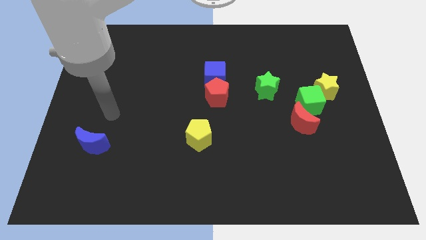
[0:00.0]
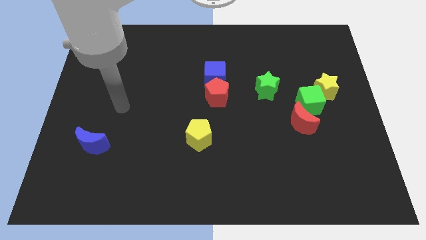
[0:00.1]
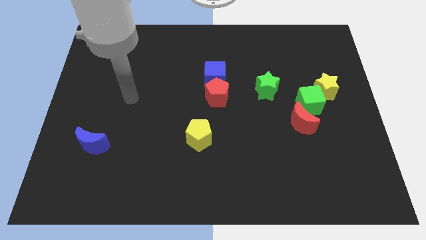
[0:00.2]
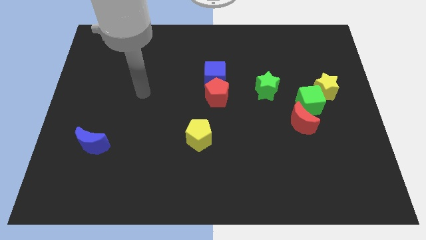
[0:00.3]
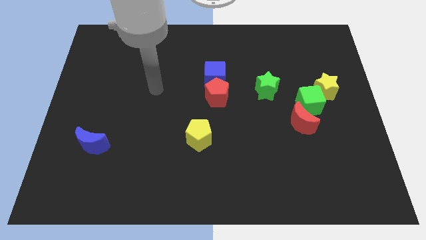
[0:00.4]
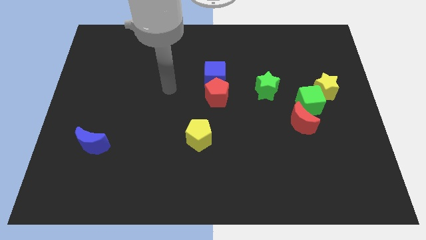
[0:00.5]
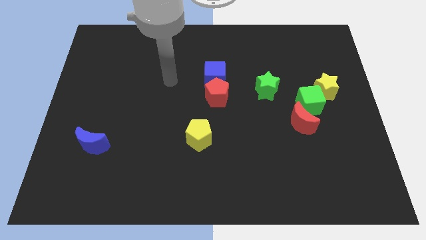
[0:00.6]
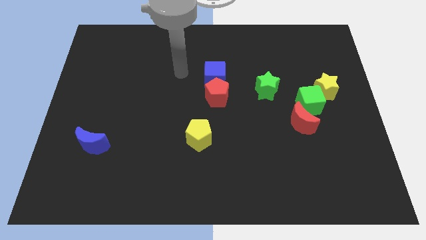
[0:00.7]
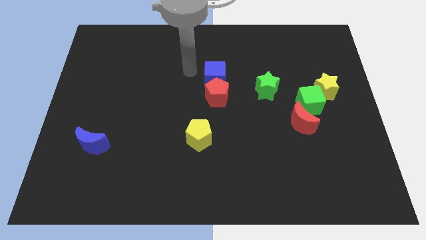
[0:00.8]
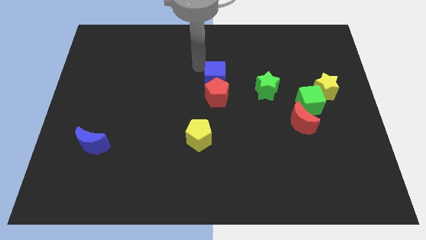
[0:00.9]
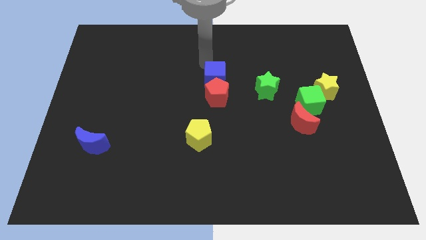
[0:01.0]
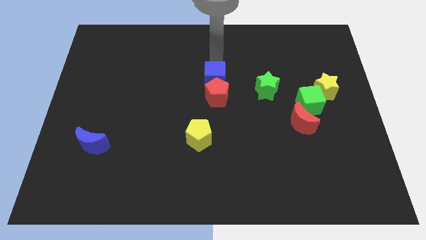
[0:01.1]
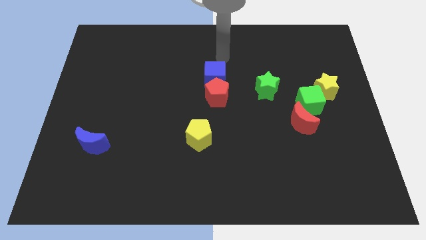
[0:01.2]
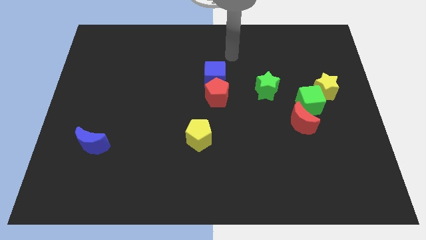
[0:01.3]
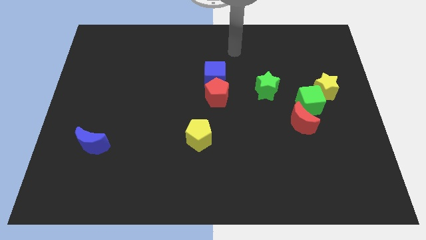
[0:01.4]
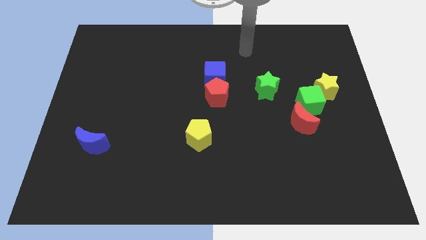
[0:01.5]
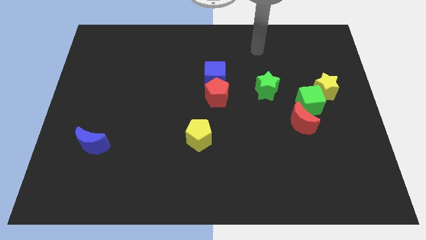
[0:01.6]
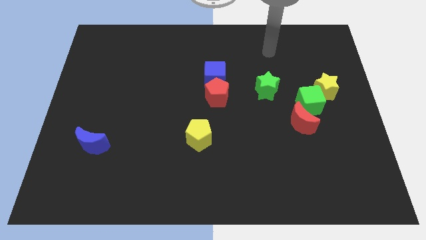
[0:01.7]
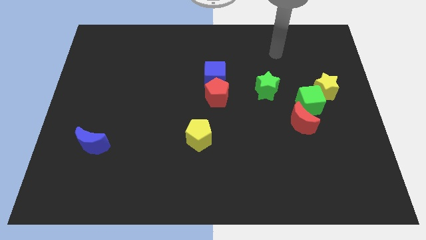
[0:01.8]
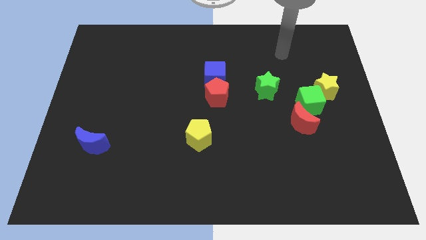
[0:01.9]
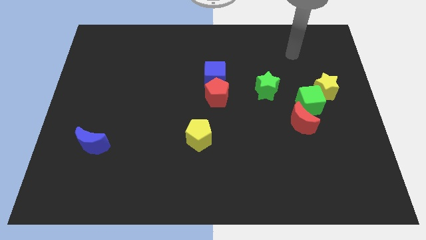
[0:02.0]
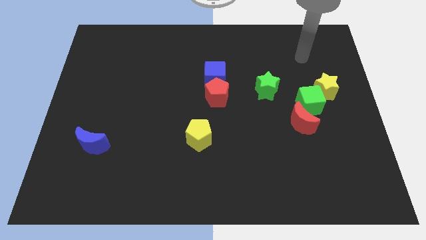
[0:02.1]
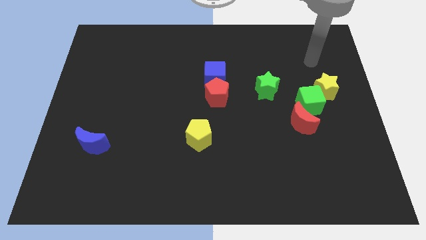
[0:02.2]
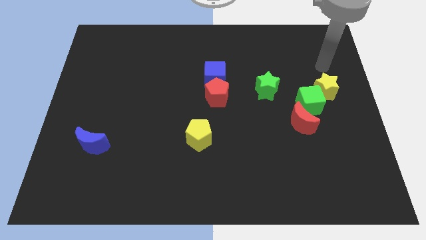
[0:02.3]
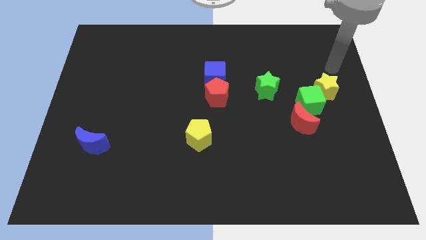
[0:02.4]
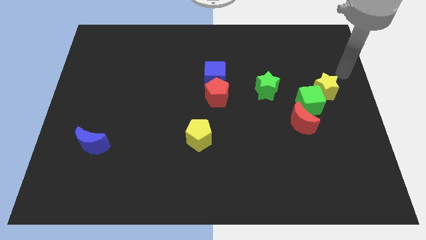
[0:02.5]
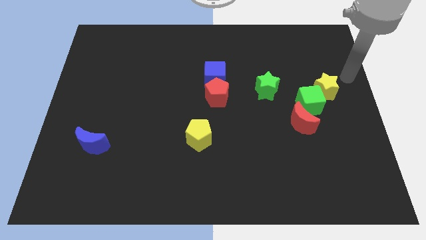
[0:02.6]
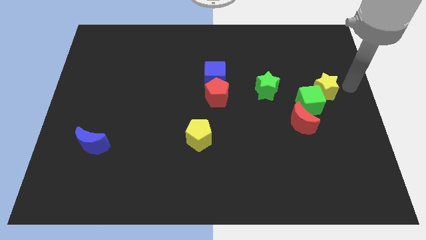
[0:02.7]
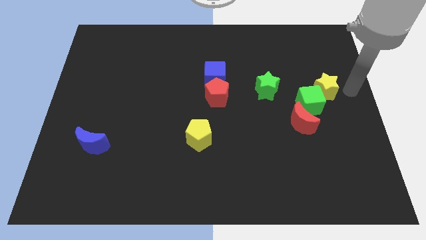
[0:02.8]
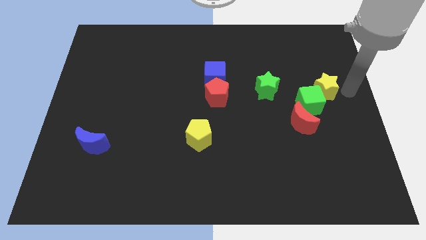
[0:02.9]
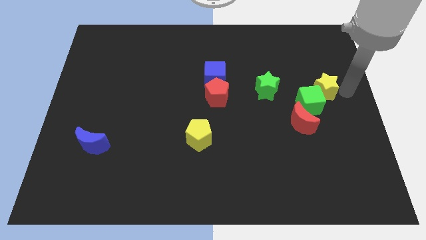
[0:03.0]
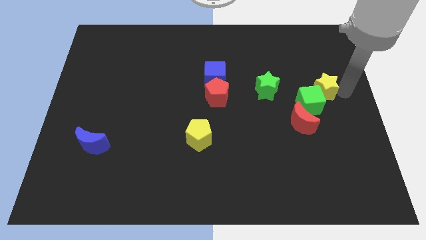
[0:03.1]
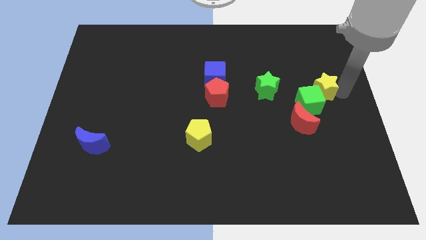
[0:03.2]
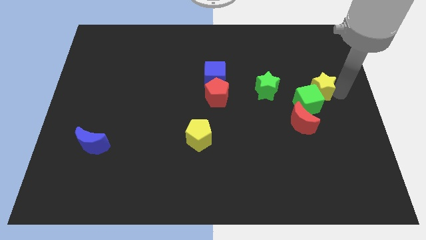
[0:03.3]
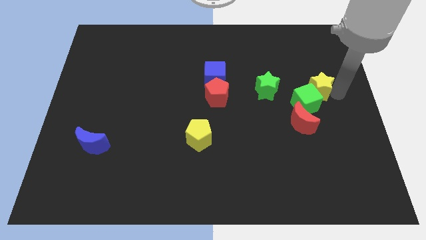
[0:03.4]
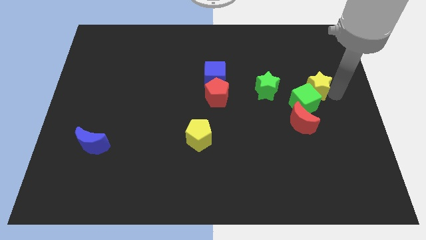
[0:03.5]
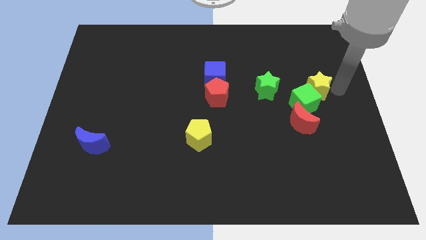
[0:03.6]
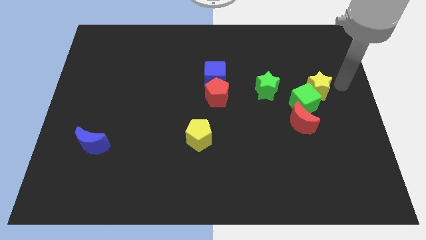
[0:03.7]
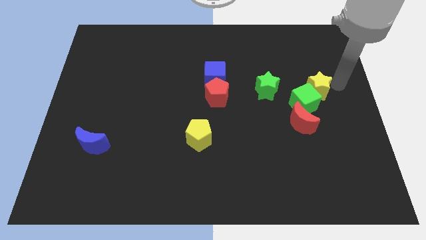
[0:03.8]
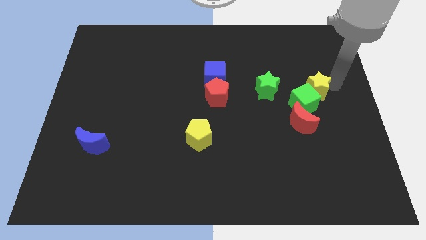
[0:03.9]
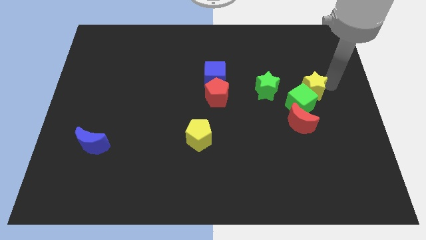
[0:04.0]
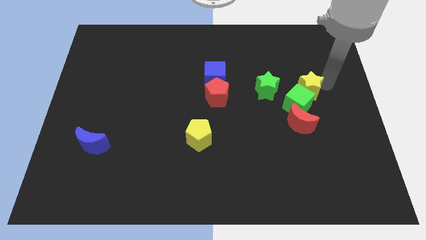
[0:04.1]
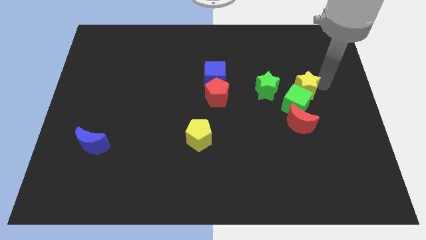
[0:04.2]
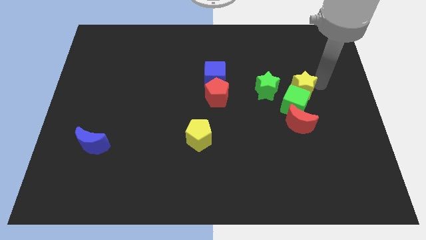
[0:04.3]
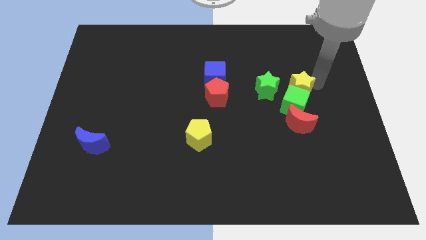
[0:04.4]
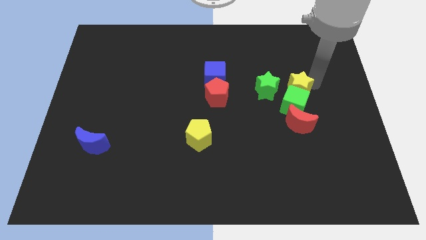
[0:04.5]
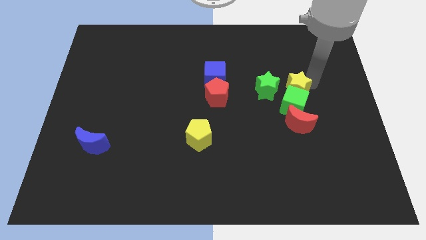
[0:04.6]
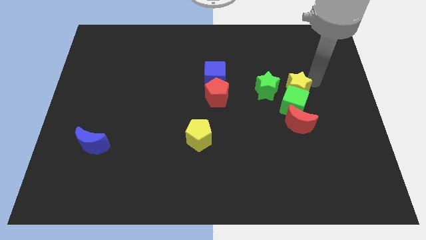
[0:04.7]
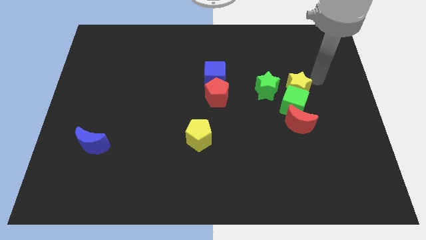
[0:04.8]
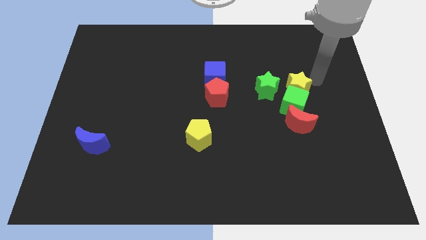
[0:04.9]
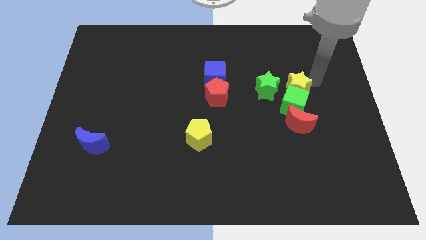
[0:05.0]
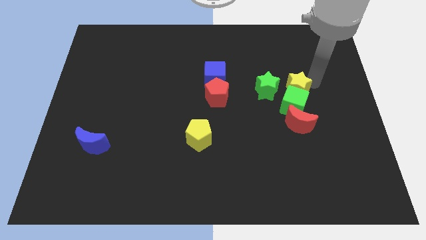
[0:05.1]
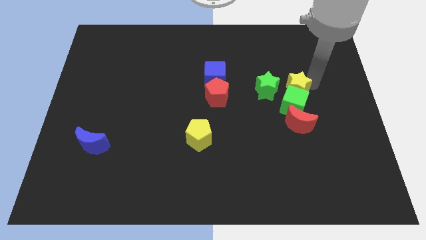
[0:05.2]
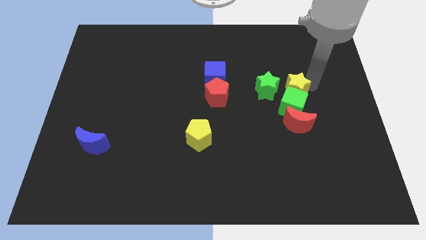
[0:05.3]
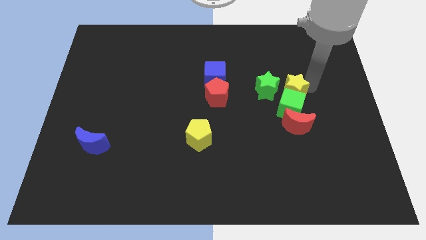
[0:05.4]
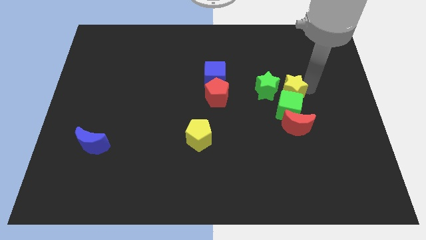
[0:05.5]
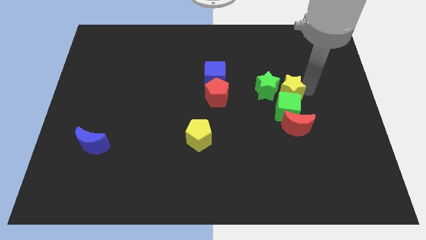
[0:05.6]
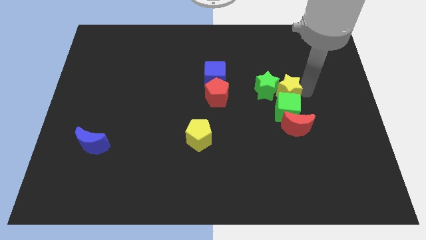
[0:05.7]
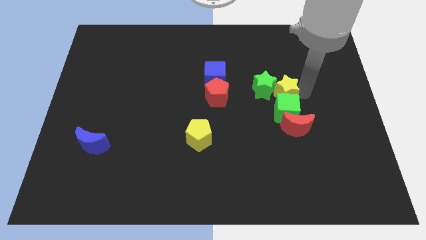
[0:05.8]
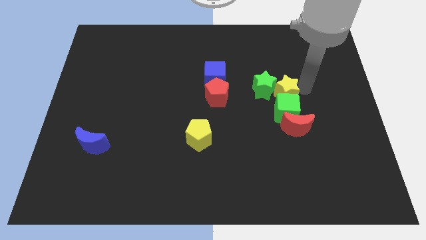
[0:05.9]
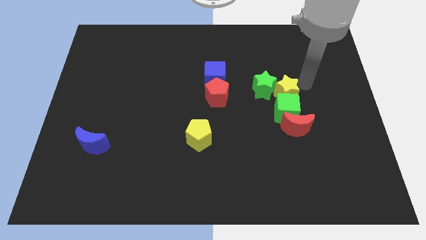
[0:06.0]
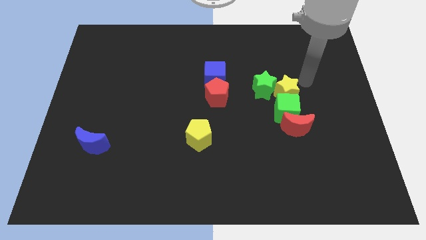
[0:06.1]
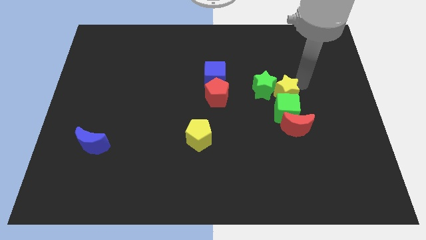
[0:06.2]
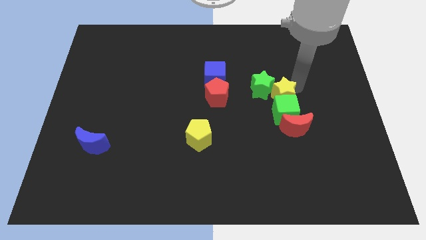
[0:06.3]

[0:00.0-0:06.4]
push the yellow star just right of the red pentagon

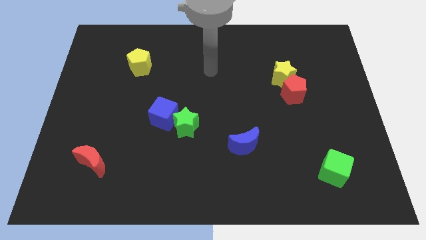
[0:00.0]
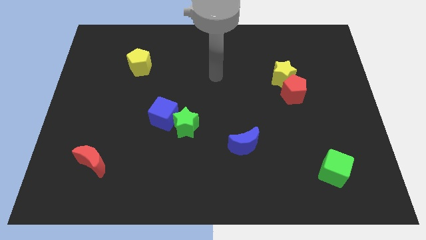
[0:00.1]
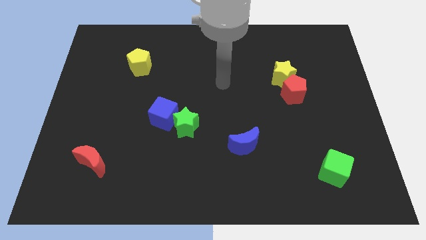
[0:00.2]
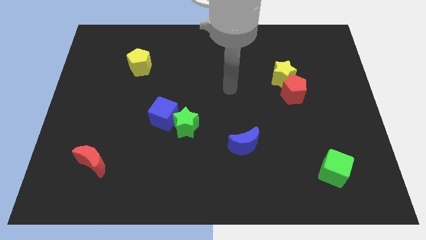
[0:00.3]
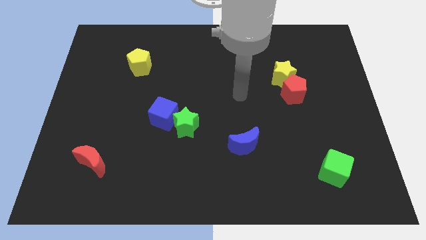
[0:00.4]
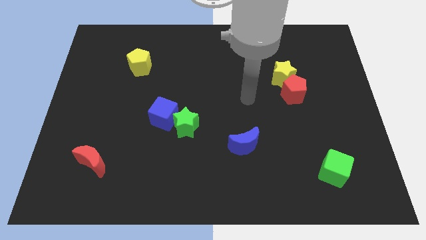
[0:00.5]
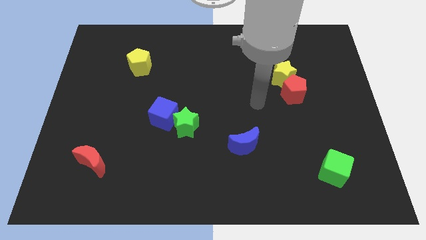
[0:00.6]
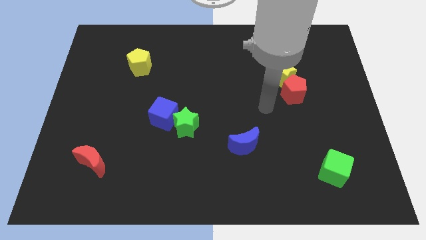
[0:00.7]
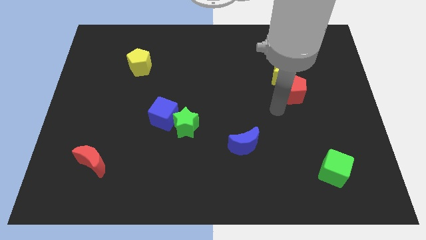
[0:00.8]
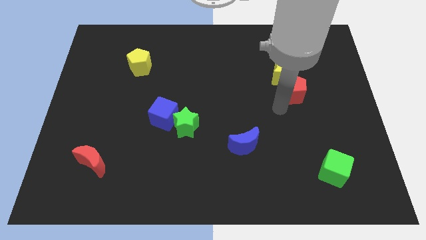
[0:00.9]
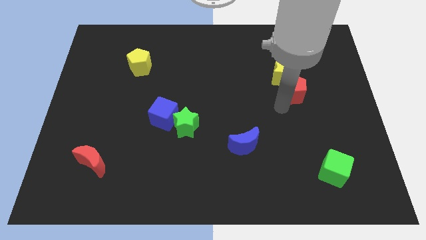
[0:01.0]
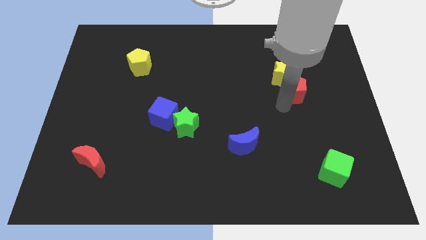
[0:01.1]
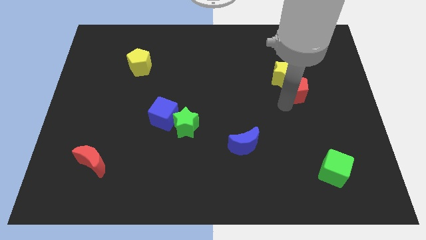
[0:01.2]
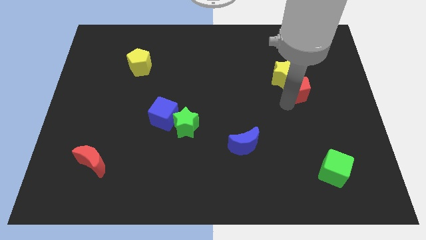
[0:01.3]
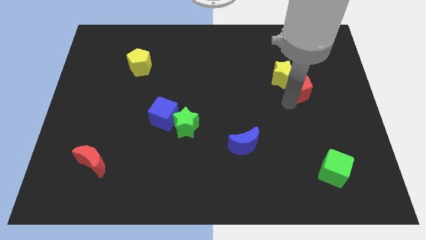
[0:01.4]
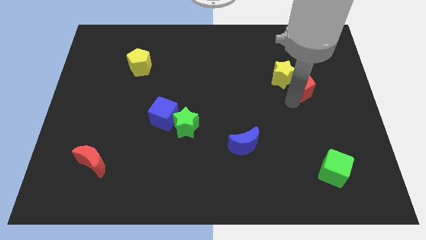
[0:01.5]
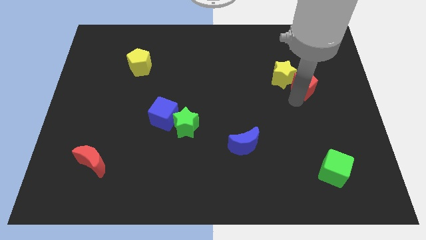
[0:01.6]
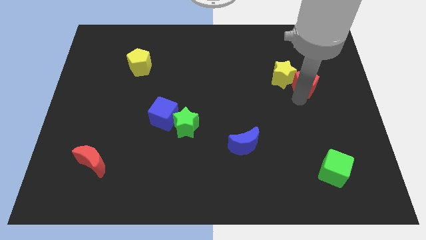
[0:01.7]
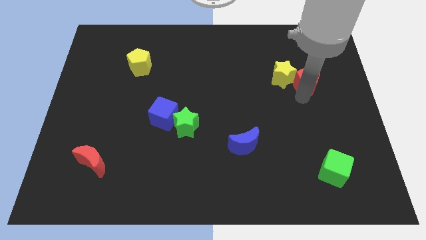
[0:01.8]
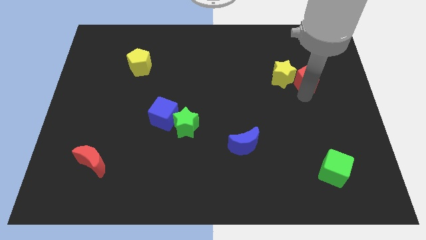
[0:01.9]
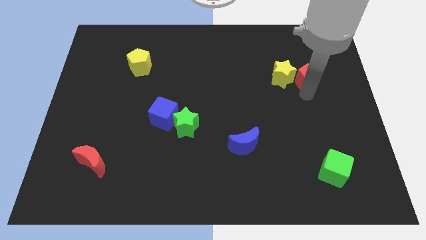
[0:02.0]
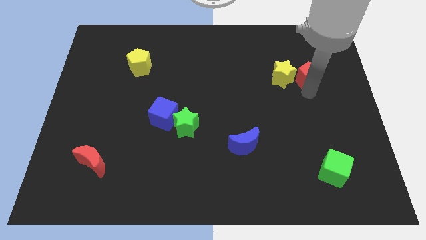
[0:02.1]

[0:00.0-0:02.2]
slide the red pentagon to the top right side of the yellow star
